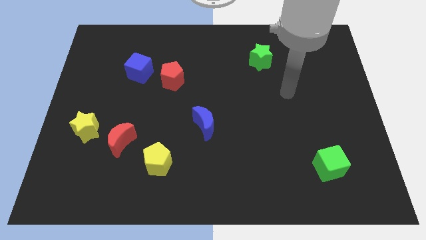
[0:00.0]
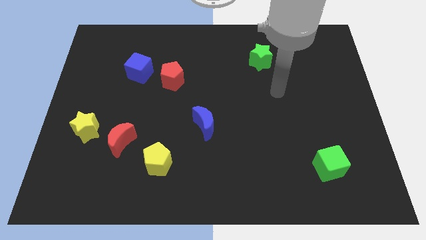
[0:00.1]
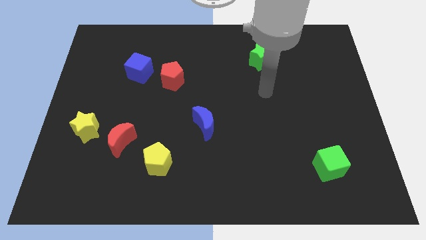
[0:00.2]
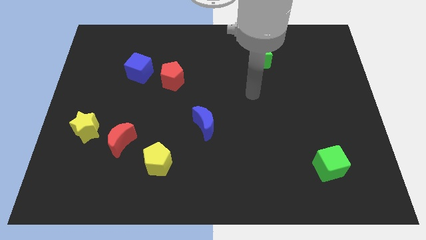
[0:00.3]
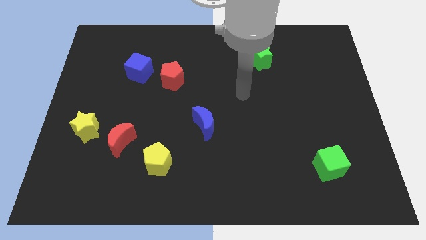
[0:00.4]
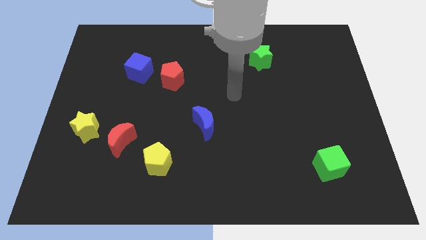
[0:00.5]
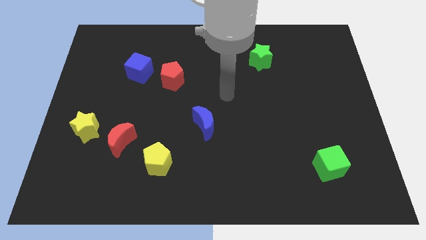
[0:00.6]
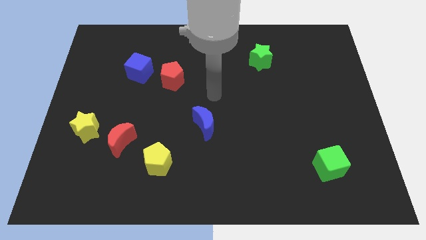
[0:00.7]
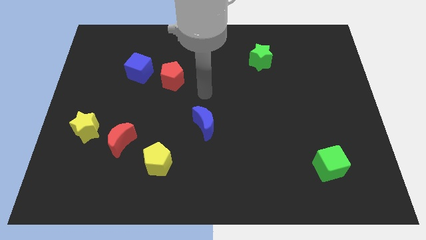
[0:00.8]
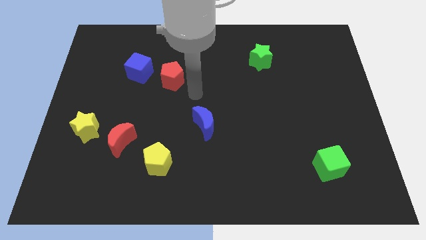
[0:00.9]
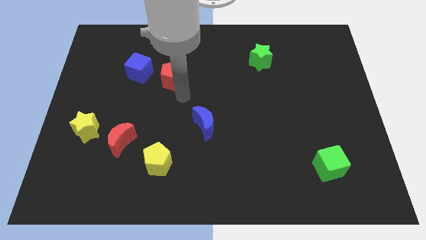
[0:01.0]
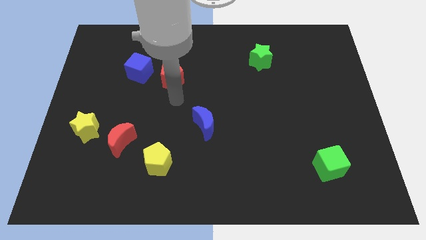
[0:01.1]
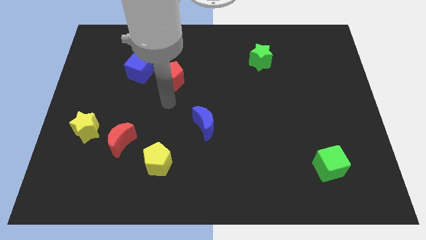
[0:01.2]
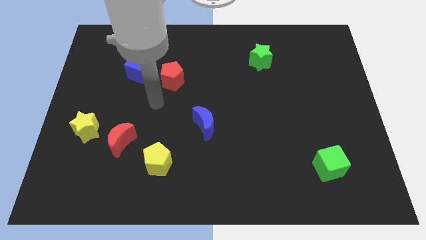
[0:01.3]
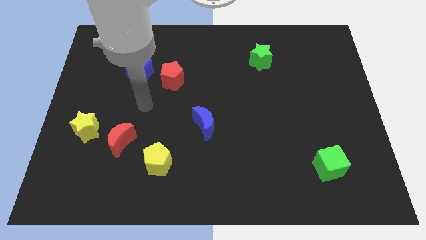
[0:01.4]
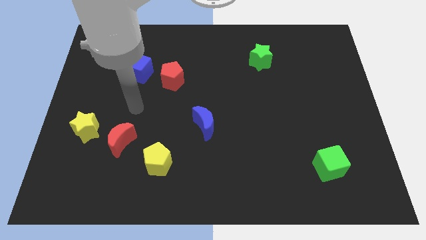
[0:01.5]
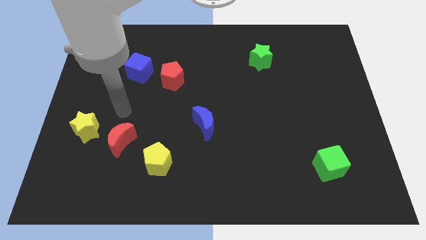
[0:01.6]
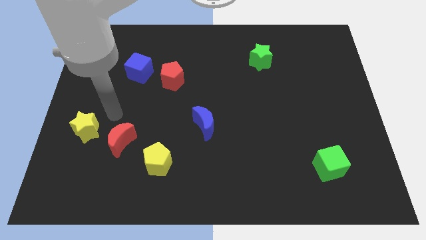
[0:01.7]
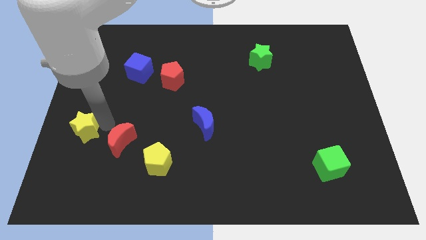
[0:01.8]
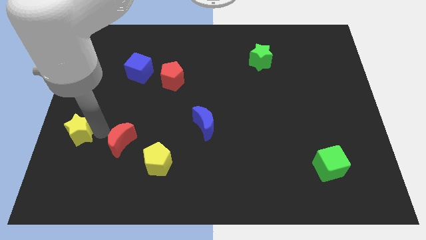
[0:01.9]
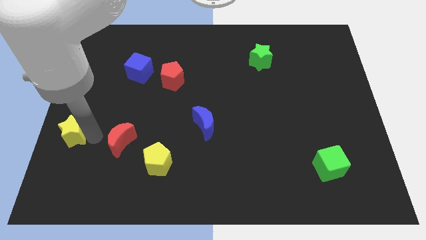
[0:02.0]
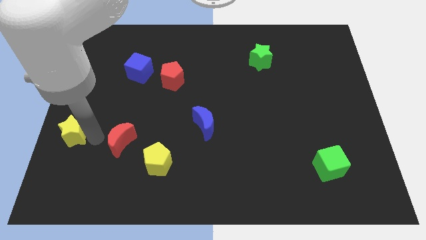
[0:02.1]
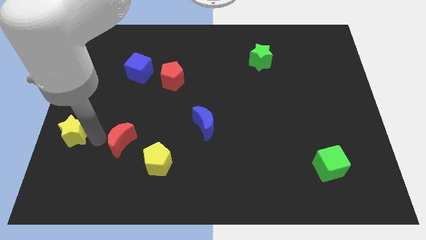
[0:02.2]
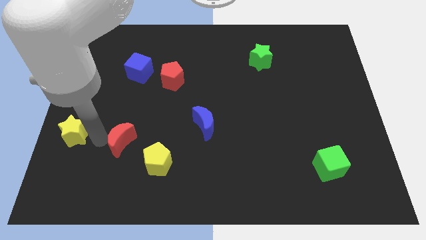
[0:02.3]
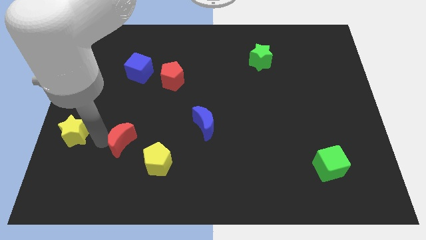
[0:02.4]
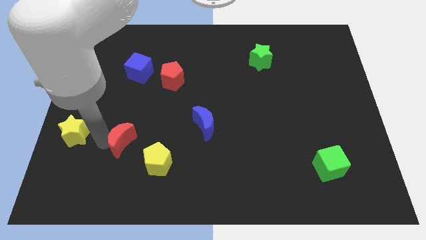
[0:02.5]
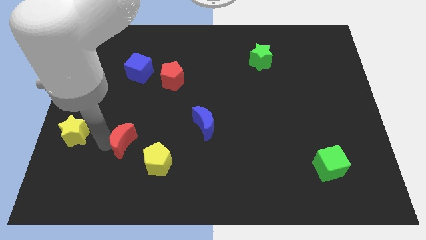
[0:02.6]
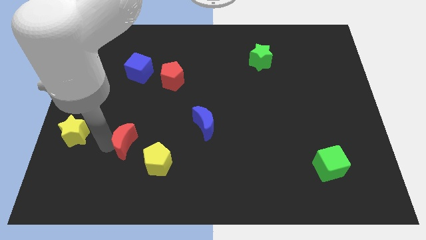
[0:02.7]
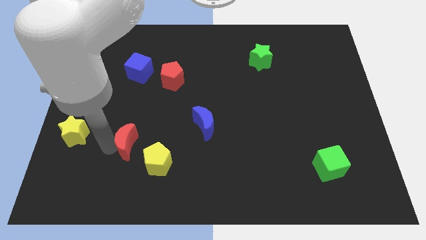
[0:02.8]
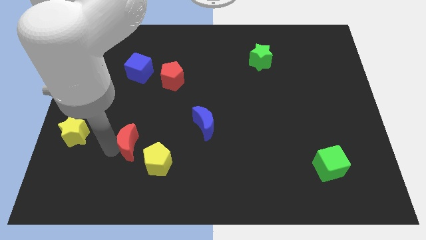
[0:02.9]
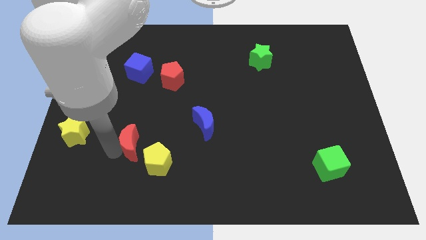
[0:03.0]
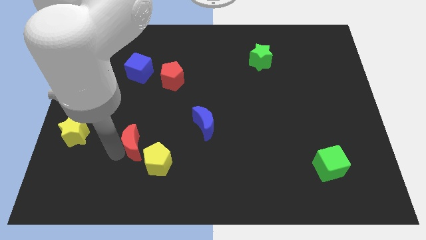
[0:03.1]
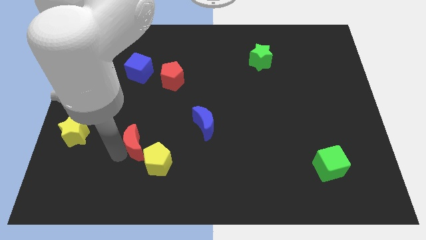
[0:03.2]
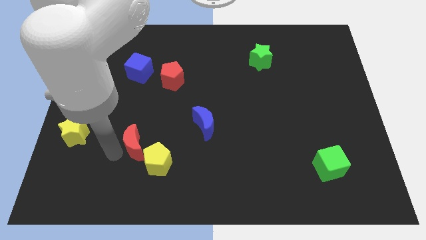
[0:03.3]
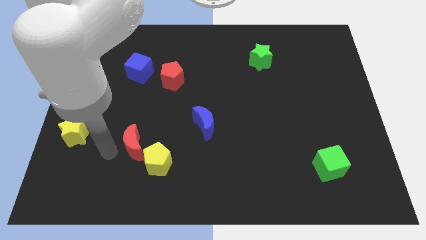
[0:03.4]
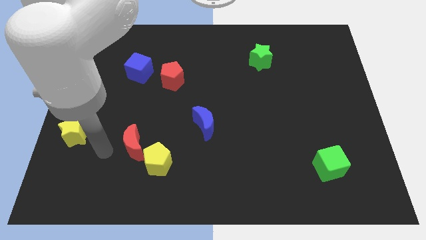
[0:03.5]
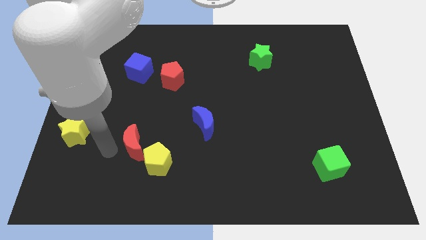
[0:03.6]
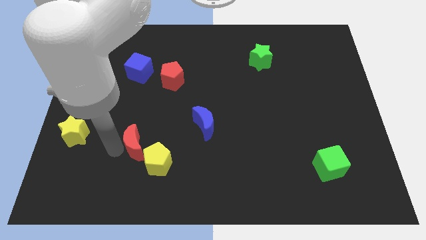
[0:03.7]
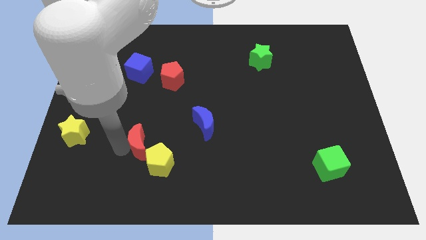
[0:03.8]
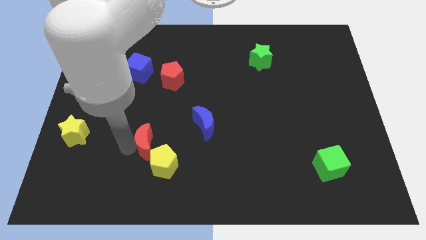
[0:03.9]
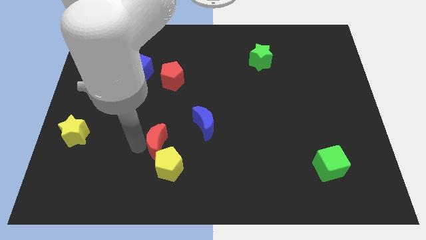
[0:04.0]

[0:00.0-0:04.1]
slide the red moon a bit to the right

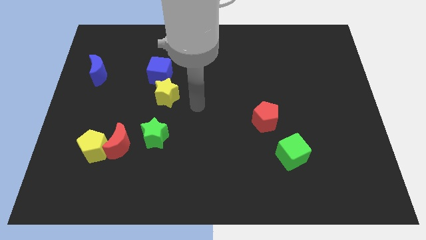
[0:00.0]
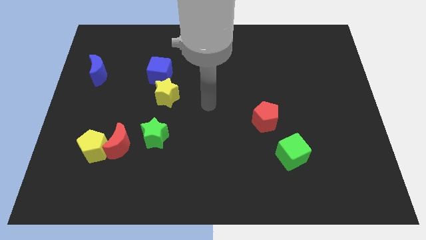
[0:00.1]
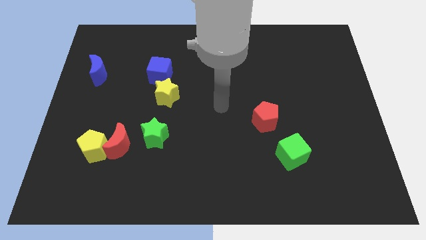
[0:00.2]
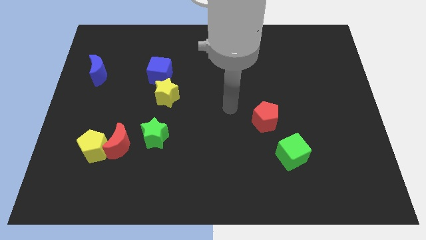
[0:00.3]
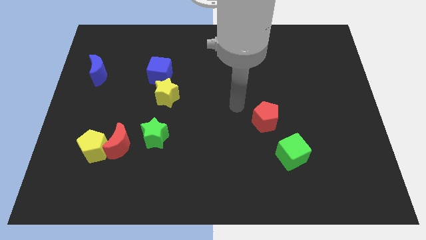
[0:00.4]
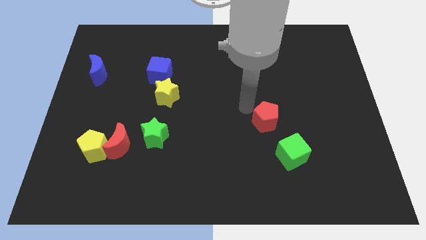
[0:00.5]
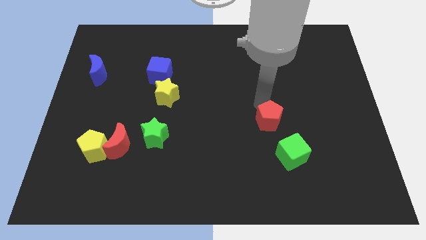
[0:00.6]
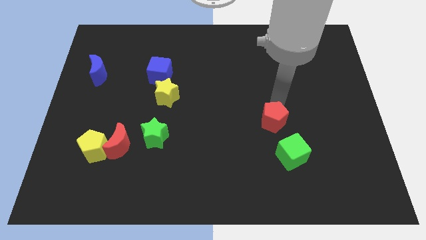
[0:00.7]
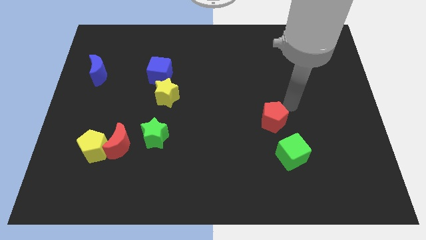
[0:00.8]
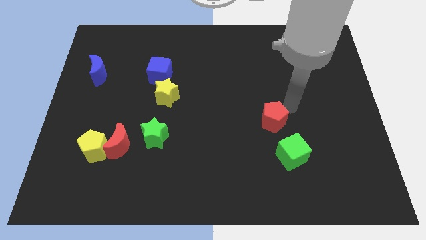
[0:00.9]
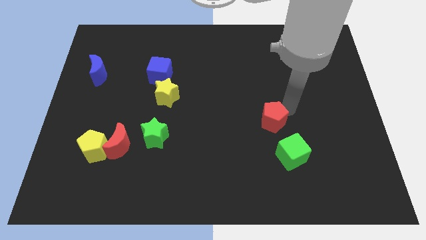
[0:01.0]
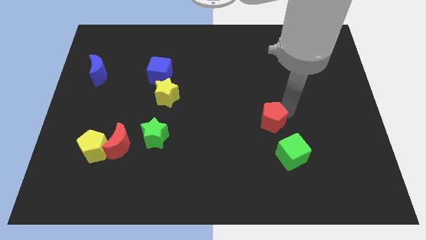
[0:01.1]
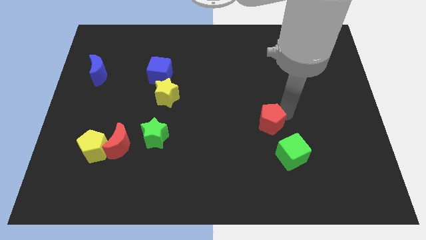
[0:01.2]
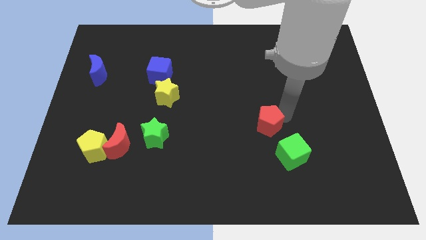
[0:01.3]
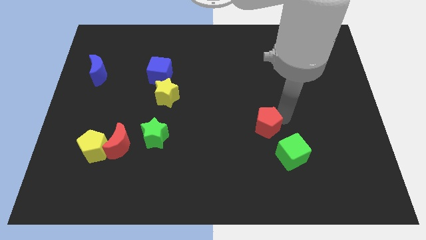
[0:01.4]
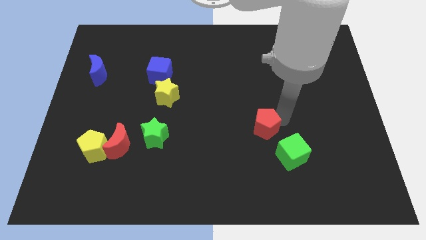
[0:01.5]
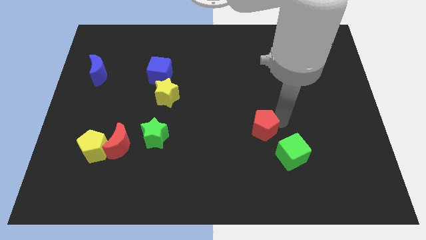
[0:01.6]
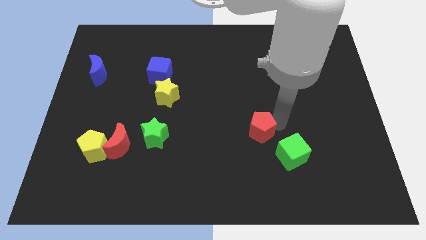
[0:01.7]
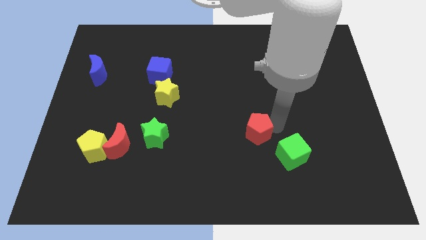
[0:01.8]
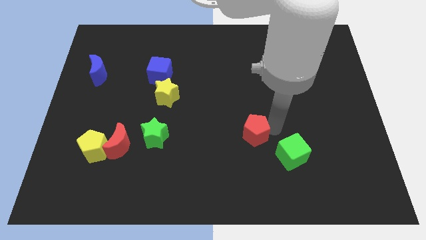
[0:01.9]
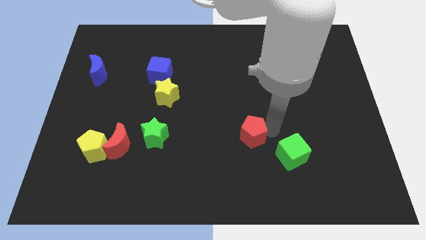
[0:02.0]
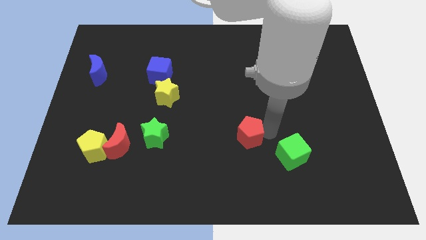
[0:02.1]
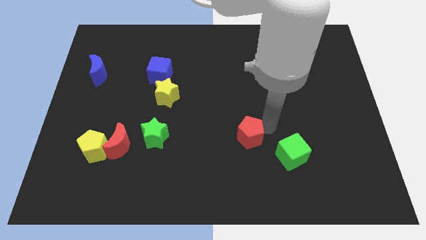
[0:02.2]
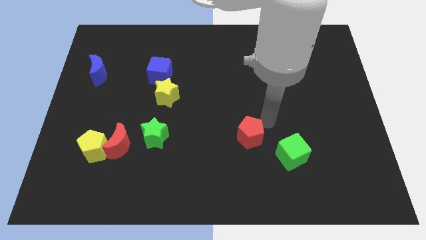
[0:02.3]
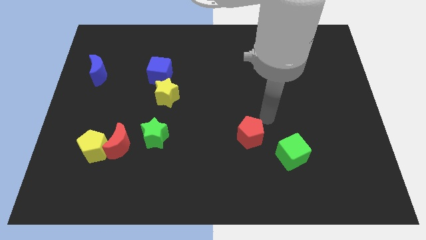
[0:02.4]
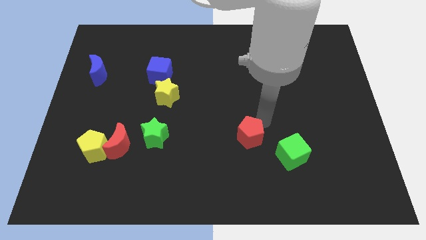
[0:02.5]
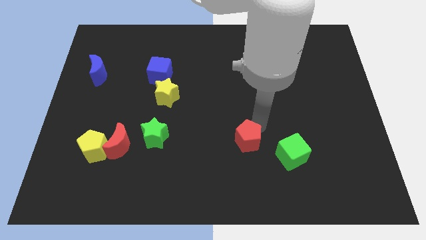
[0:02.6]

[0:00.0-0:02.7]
slightly slide the red pentagon downwards and to the left

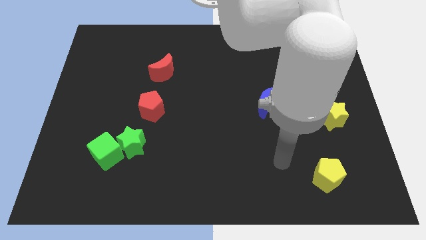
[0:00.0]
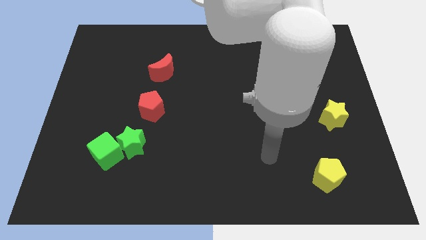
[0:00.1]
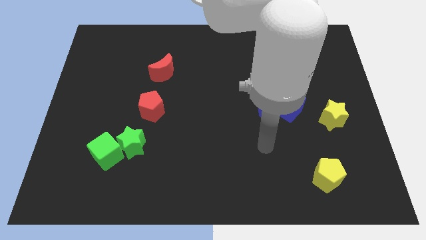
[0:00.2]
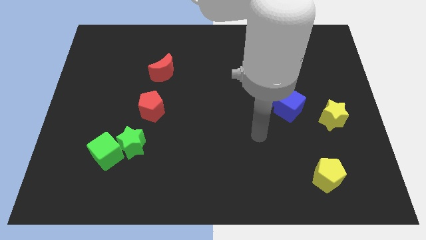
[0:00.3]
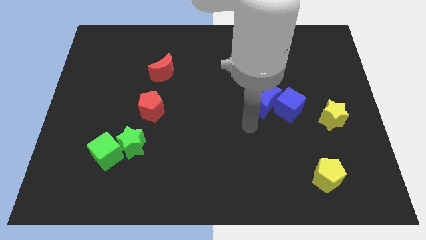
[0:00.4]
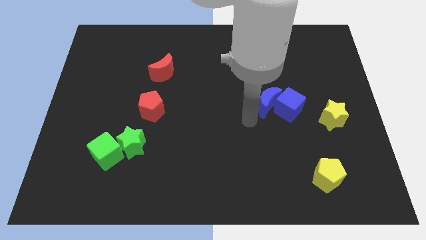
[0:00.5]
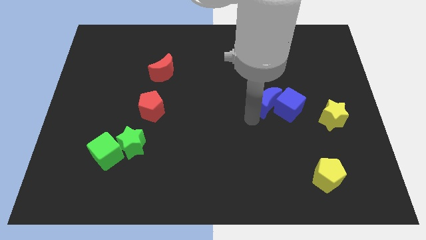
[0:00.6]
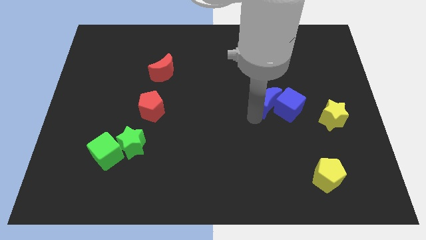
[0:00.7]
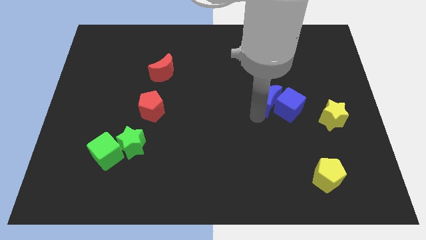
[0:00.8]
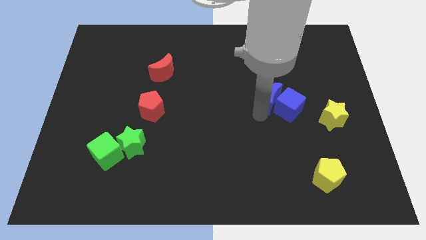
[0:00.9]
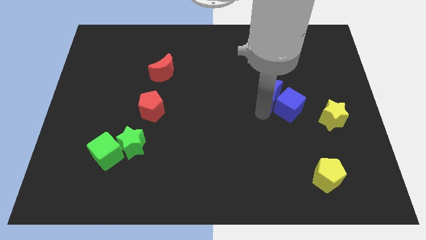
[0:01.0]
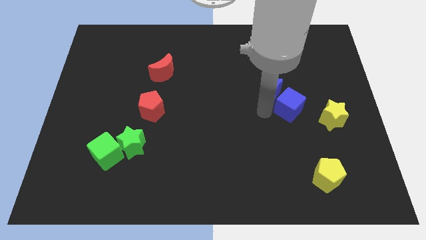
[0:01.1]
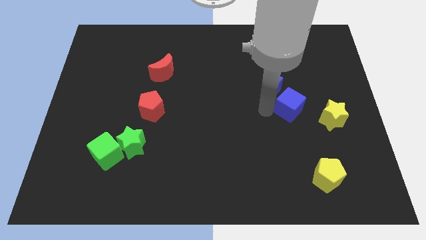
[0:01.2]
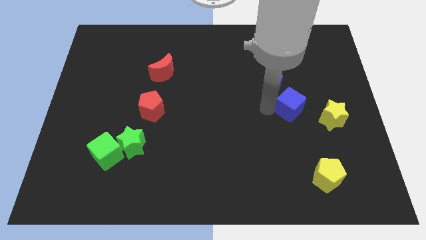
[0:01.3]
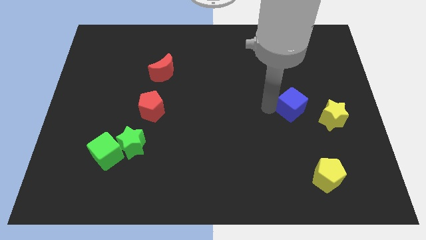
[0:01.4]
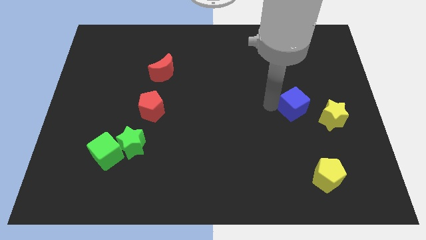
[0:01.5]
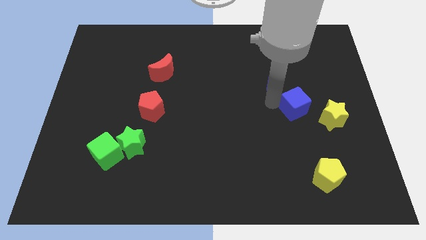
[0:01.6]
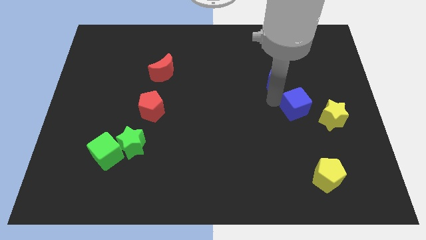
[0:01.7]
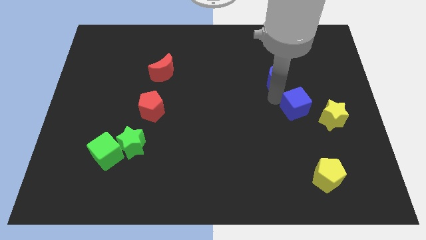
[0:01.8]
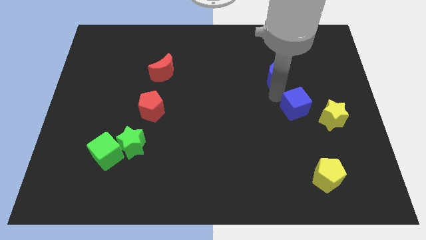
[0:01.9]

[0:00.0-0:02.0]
push the blue moon diagonally upwards and to the right a little bit
